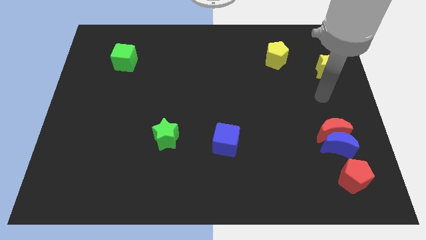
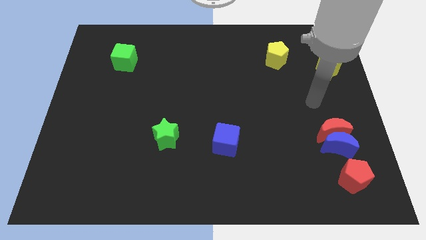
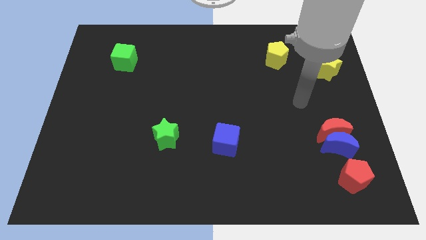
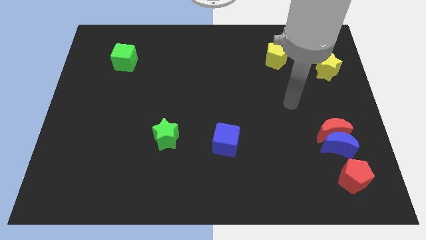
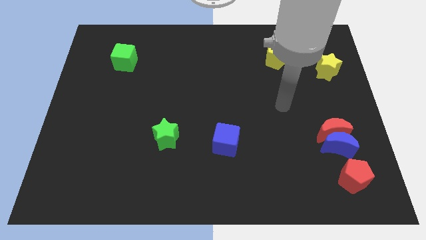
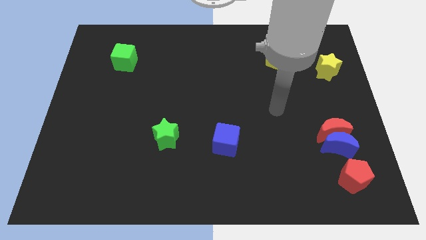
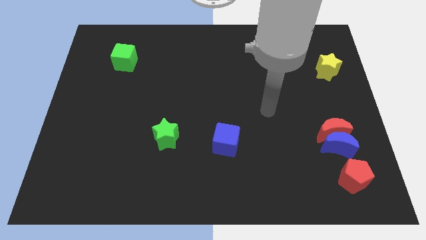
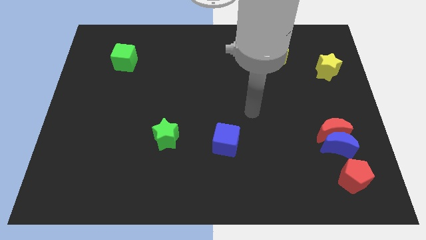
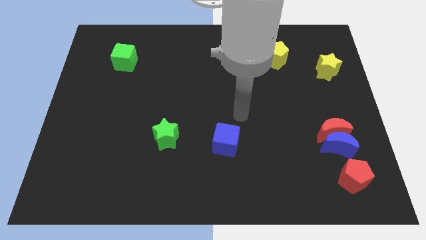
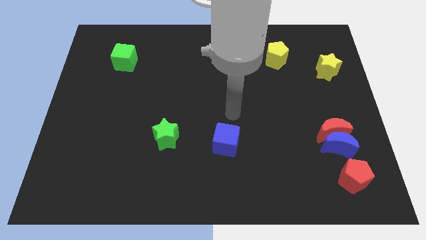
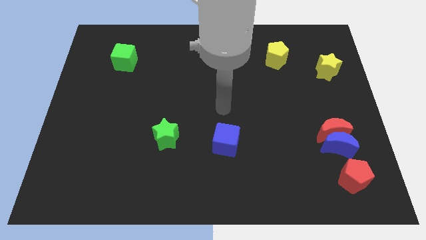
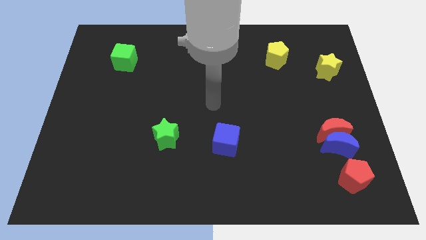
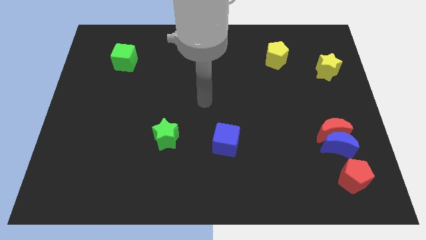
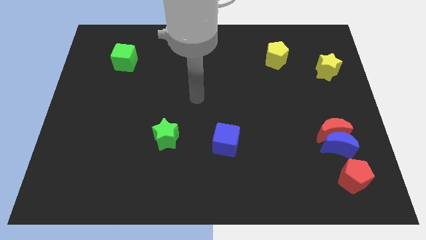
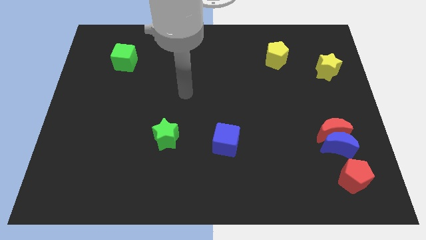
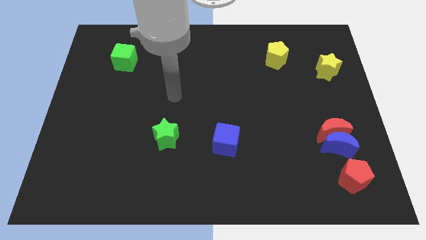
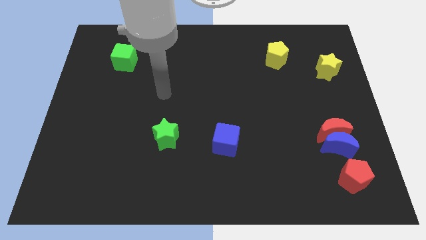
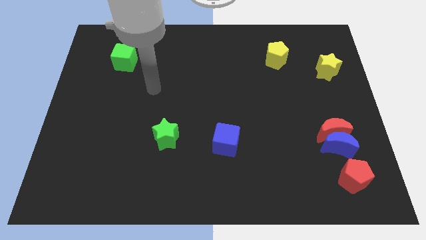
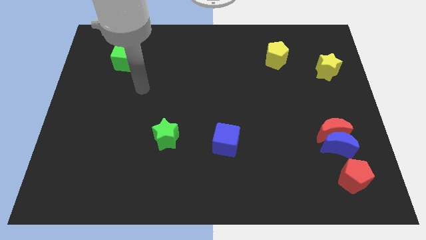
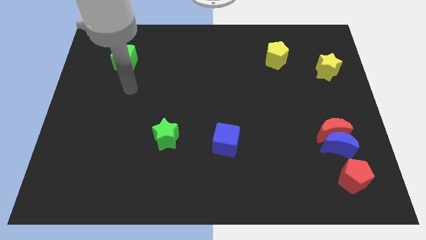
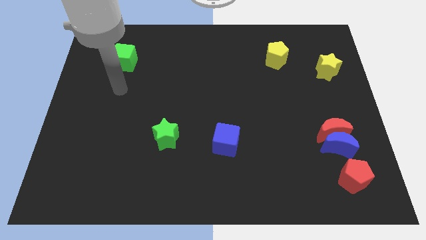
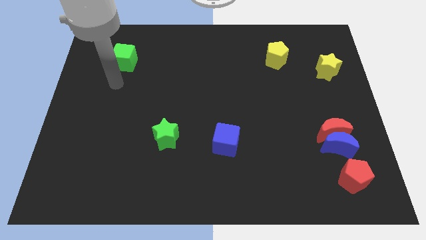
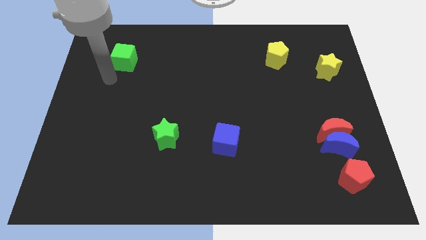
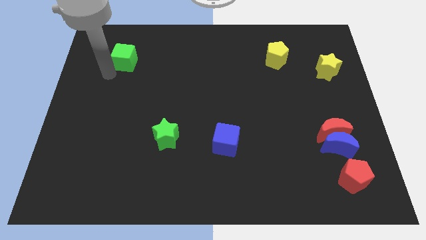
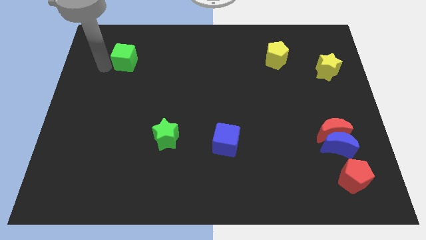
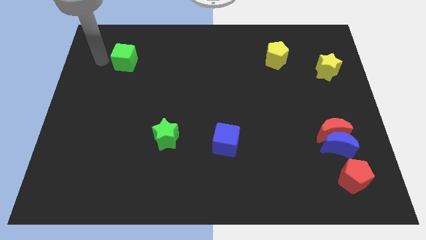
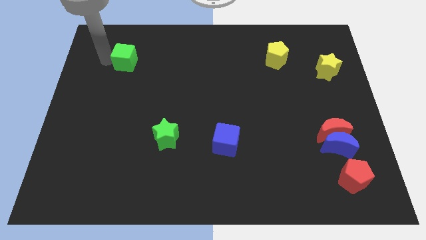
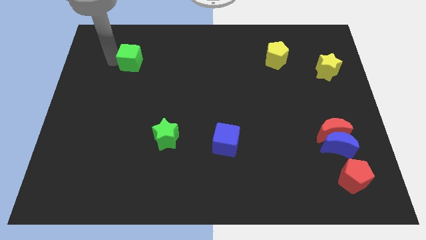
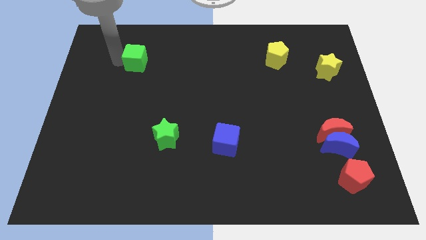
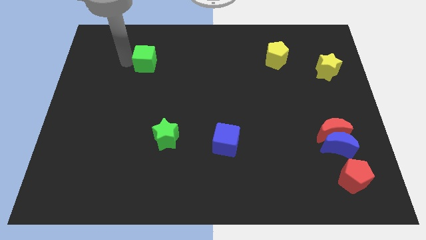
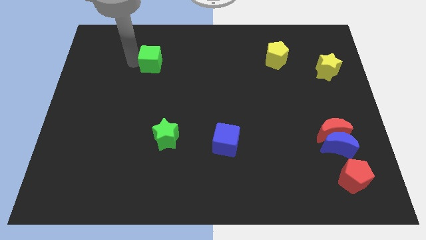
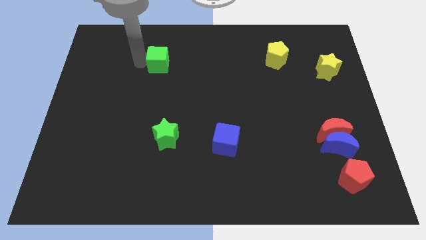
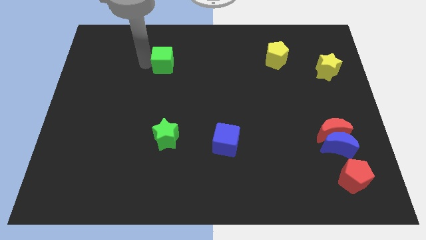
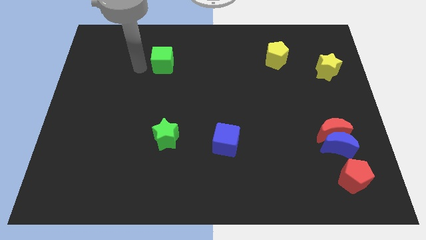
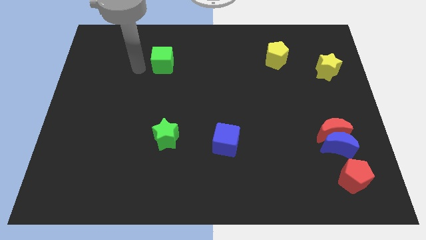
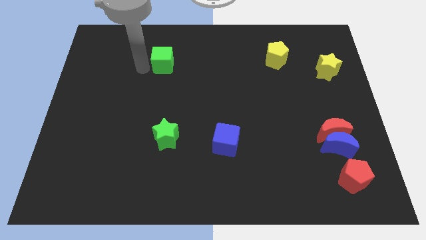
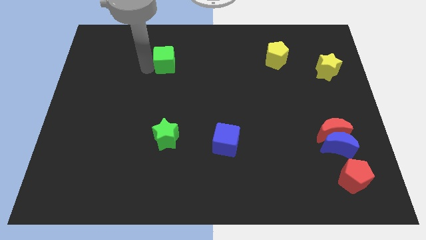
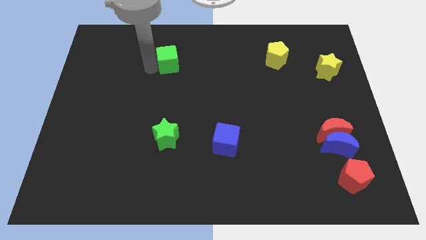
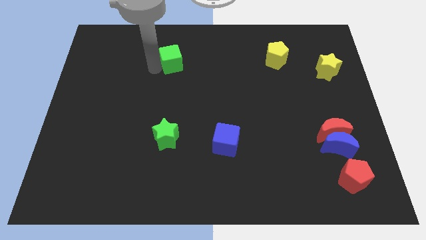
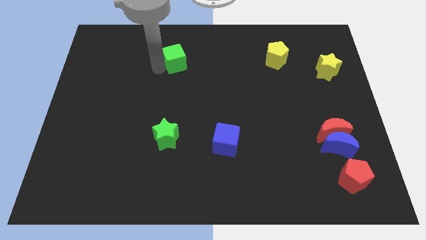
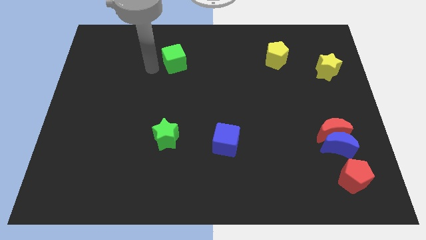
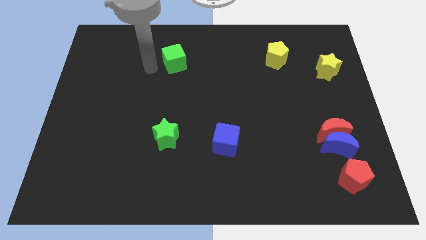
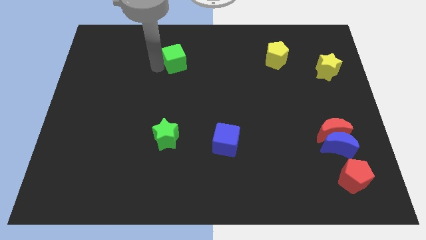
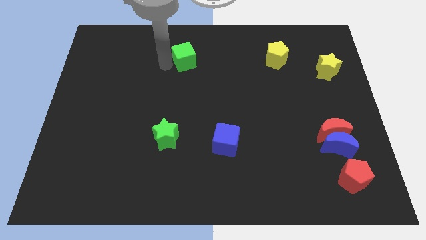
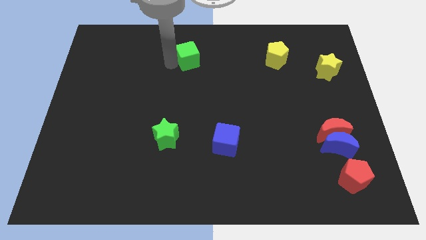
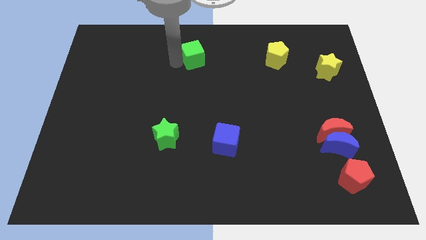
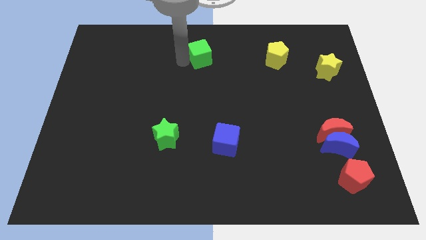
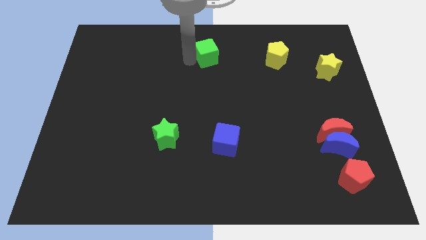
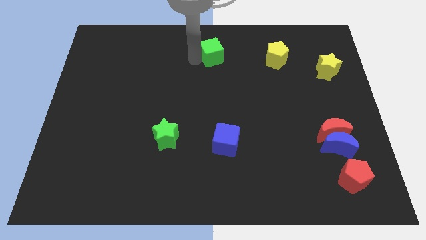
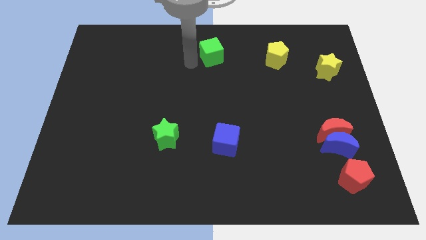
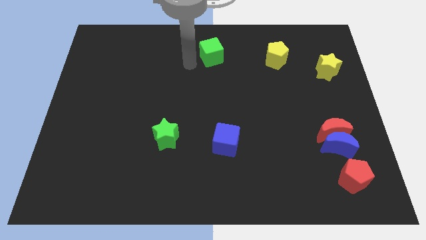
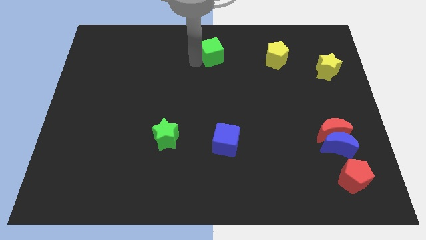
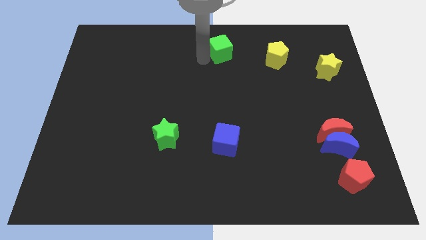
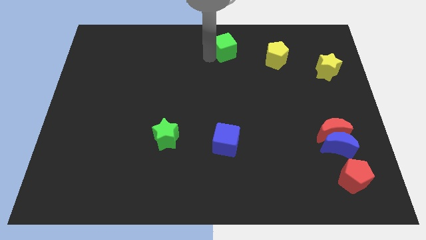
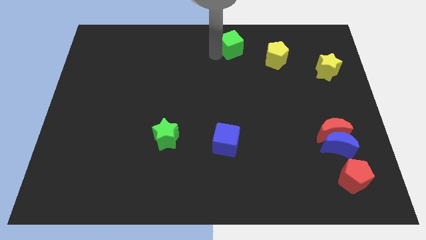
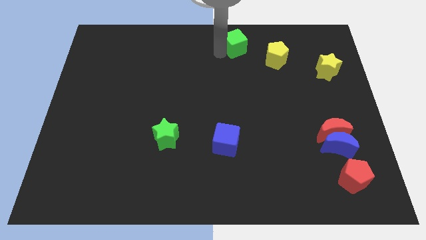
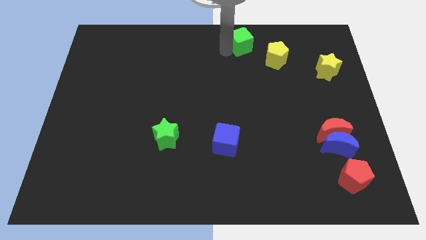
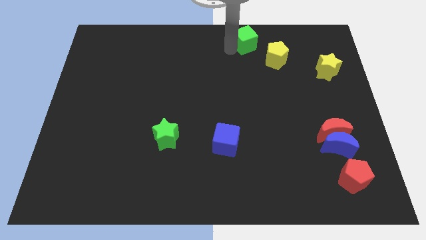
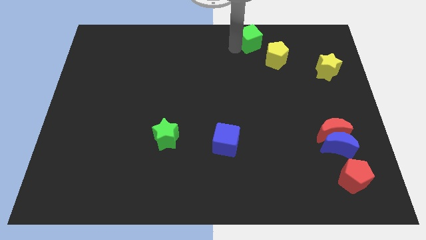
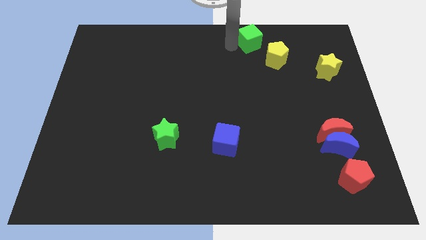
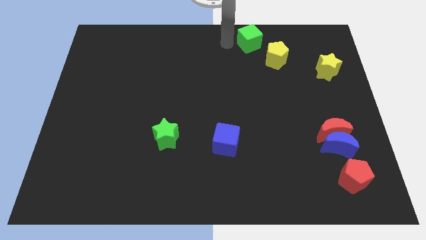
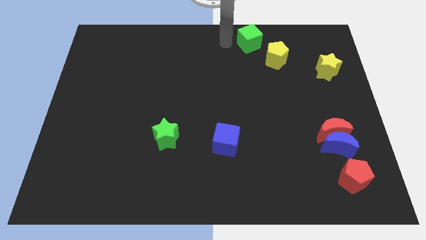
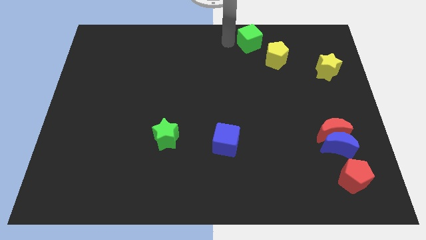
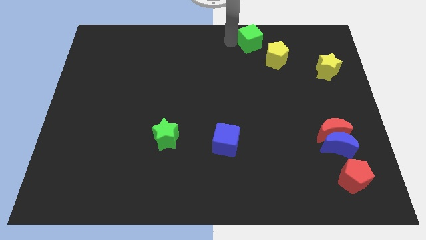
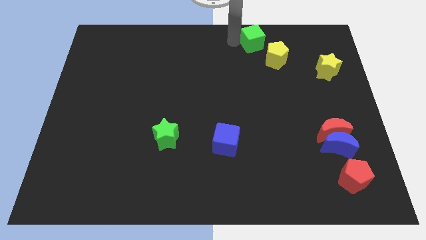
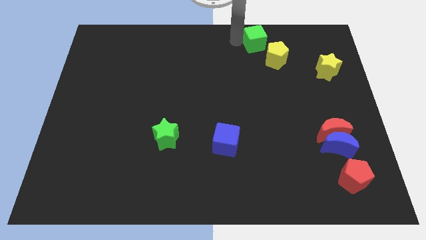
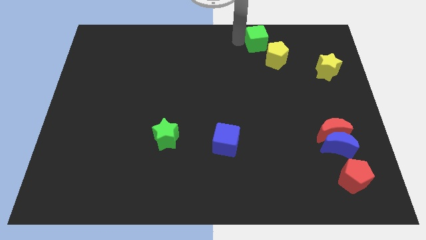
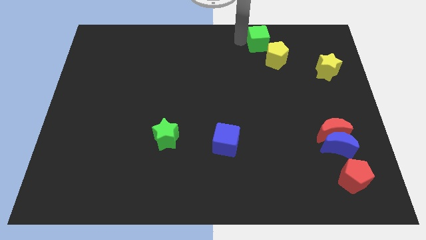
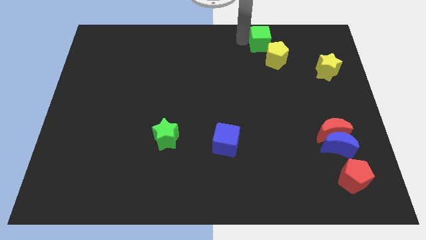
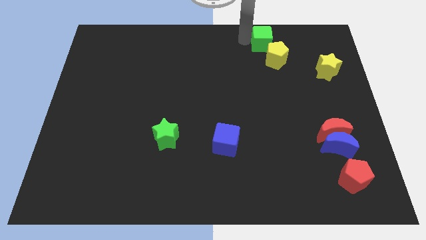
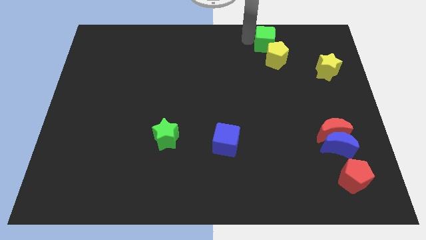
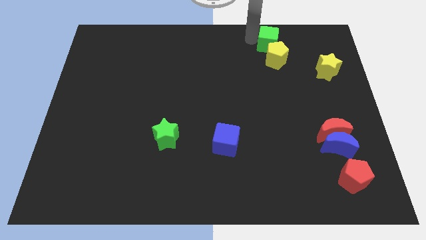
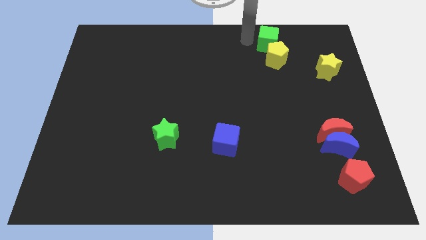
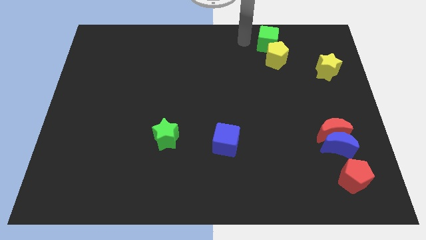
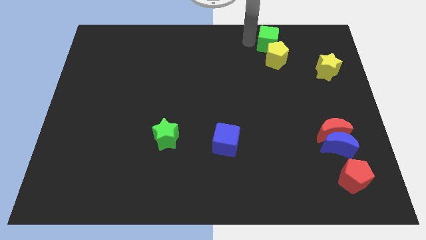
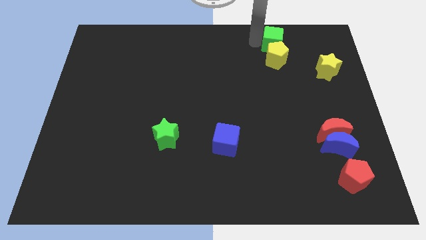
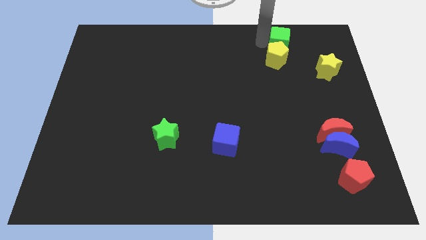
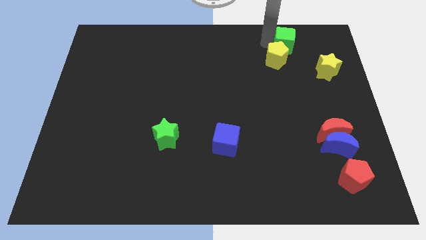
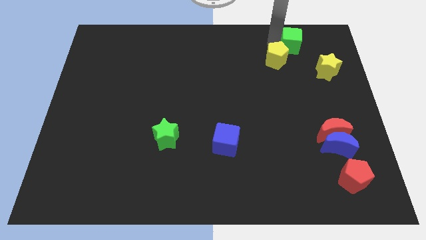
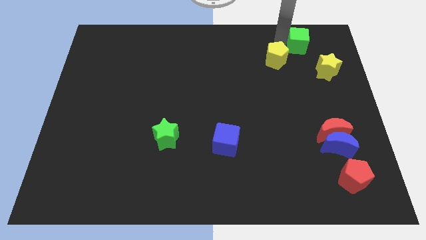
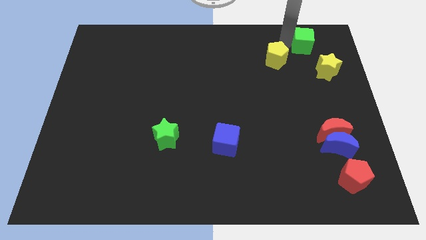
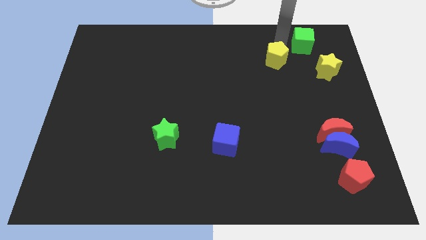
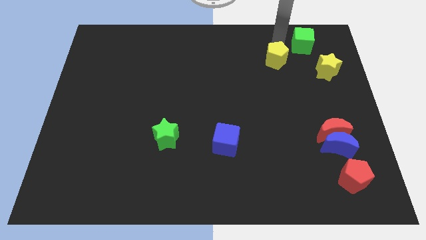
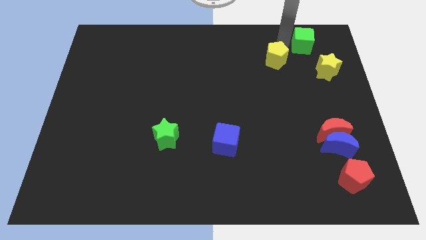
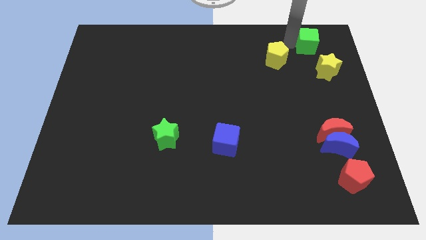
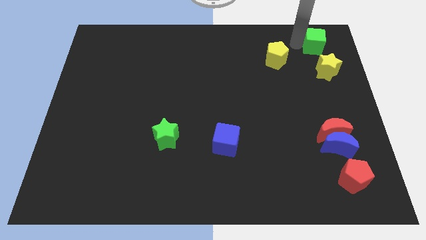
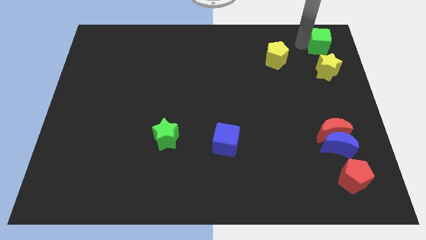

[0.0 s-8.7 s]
put the green cube to the top right corner
